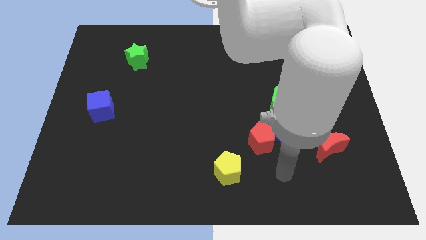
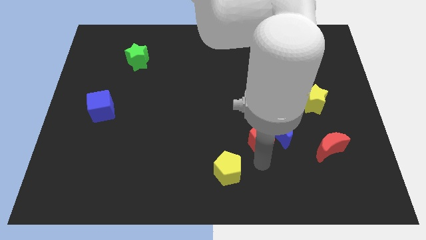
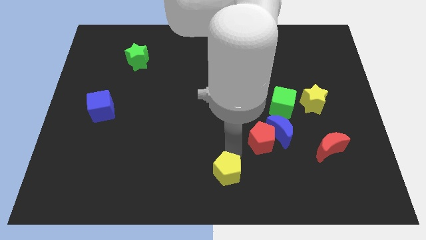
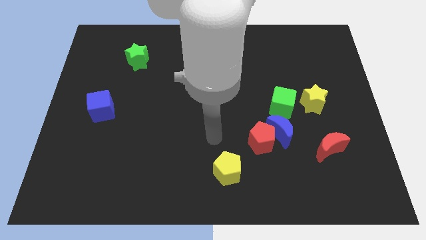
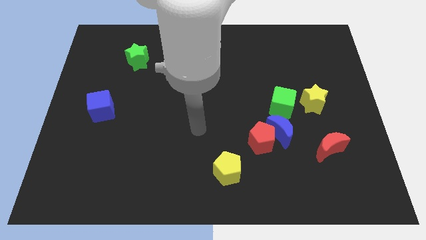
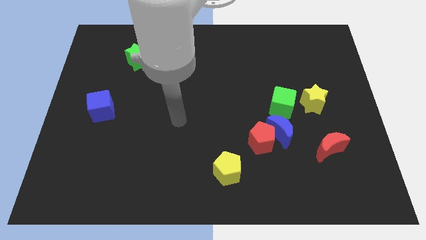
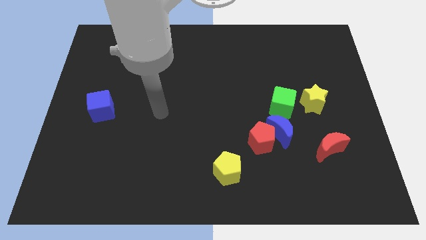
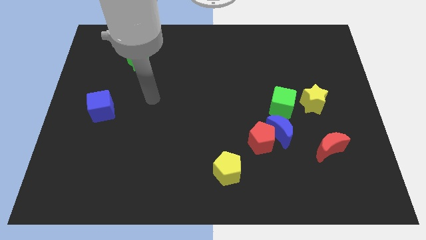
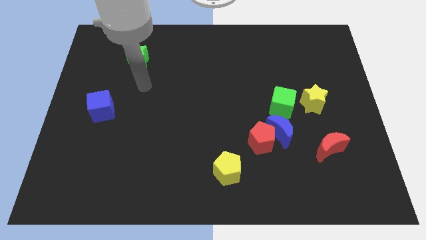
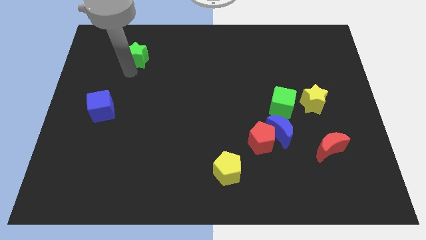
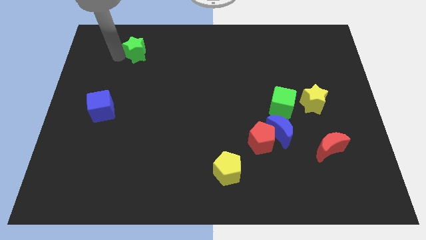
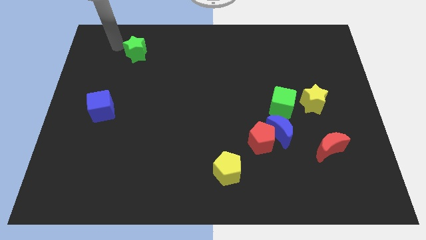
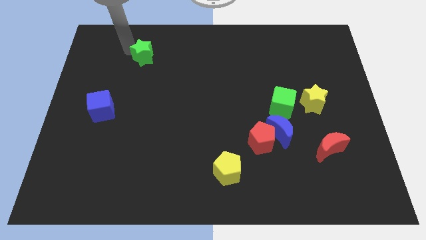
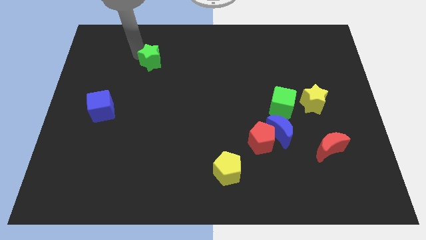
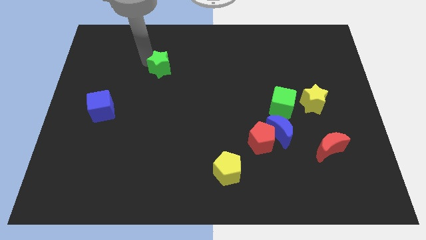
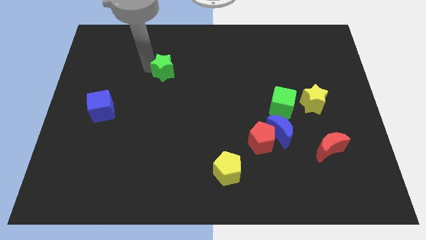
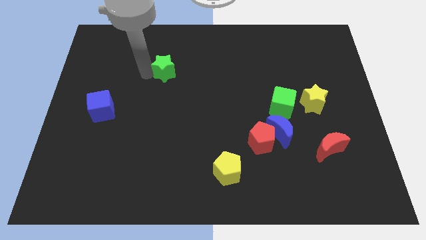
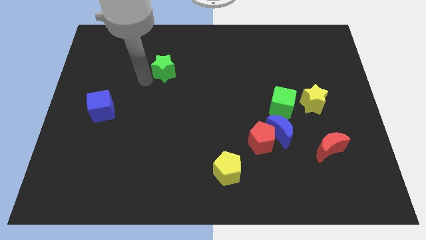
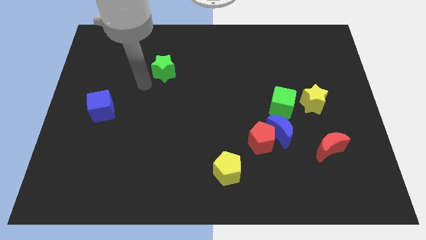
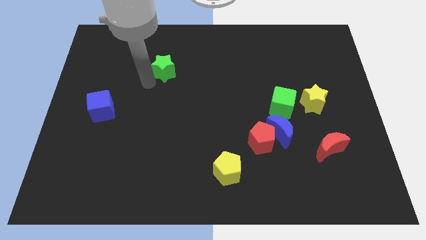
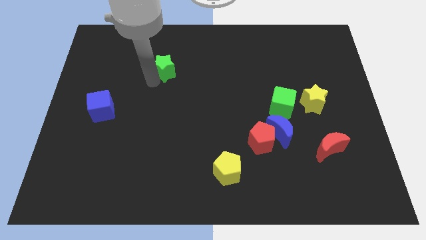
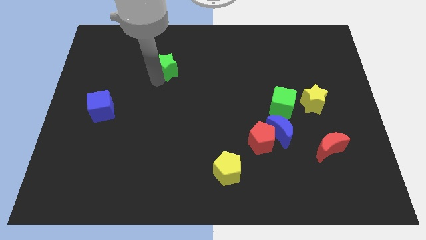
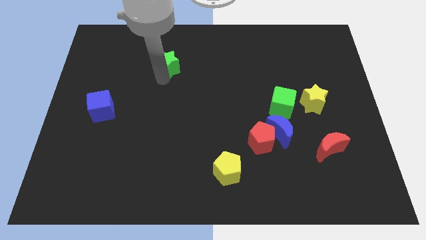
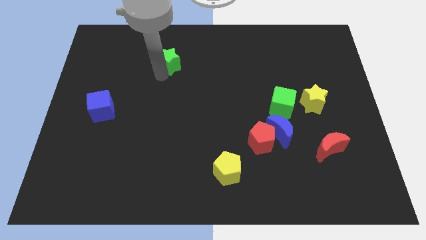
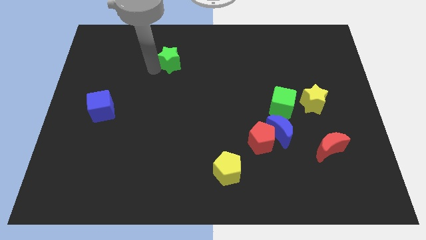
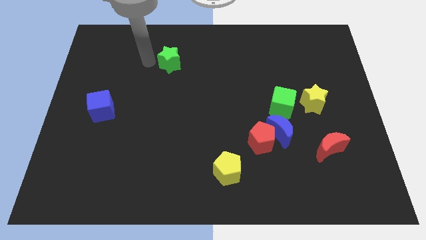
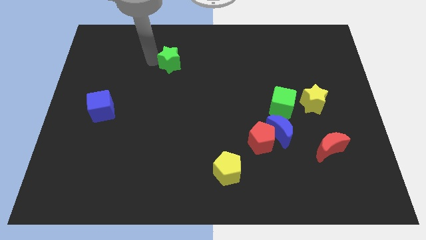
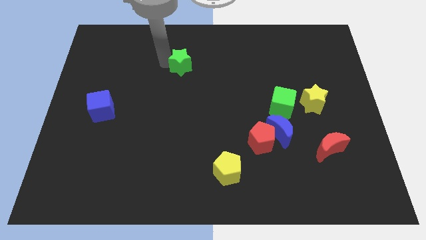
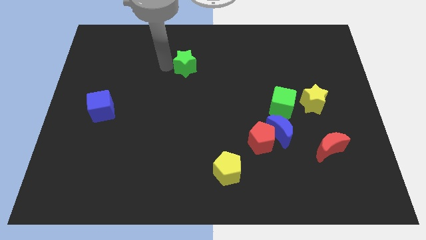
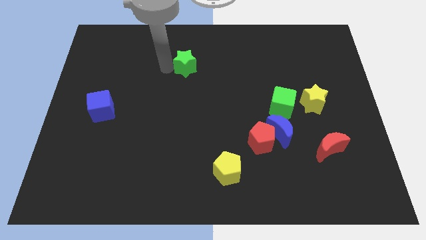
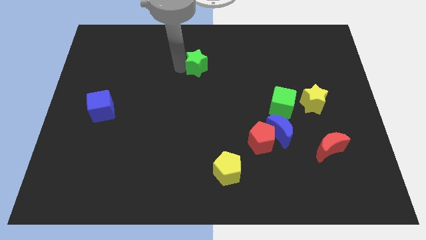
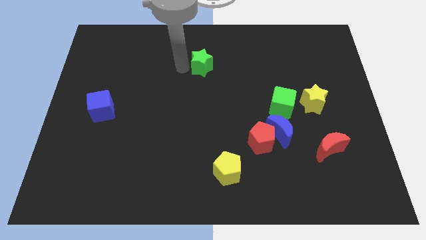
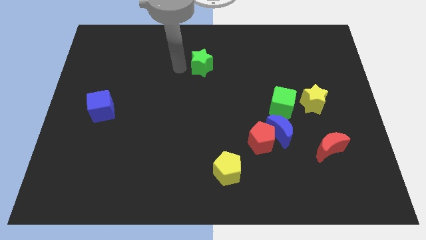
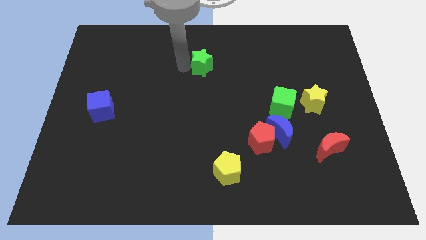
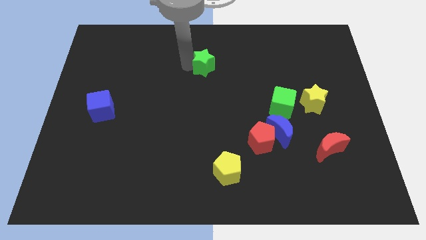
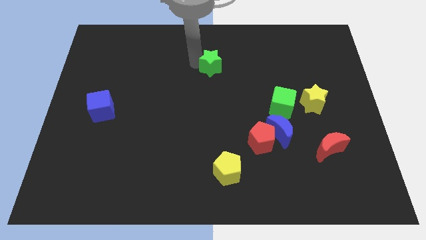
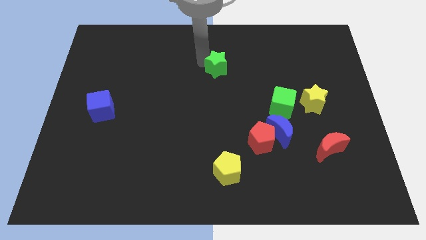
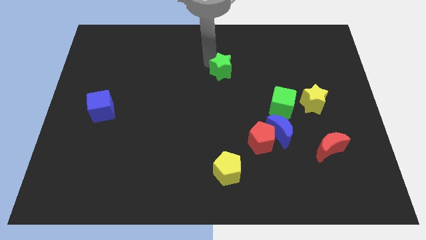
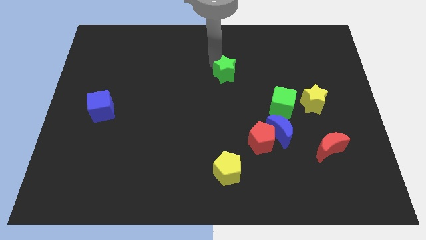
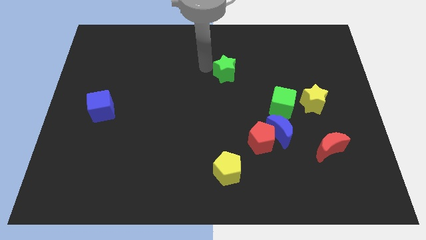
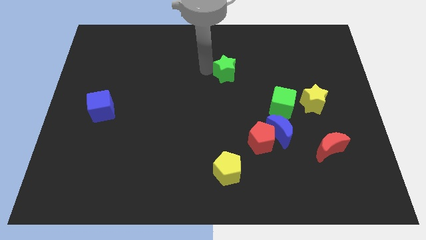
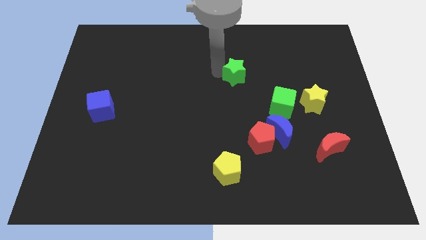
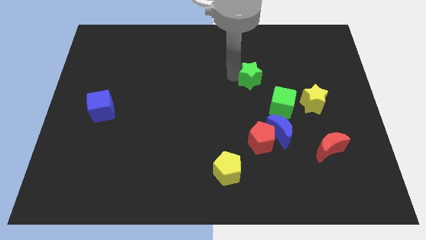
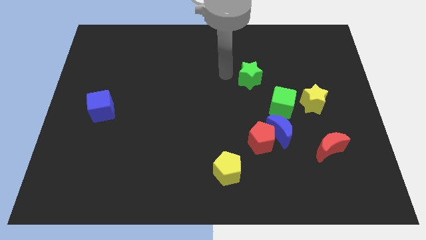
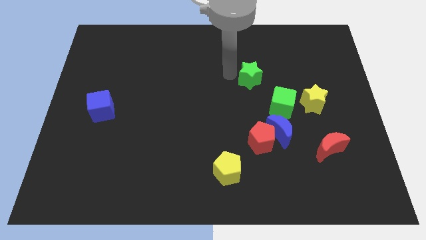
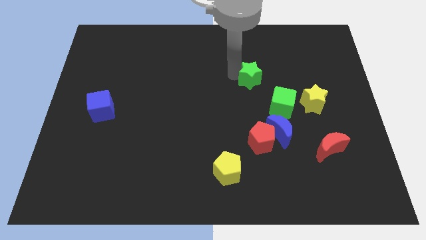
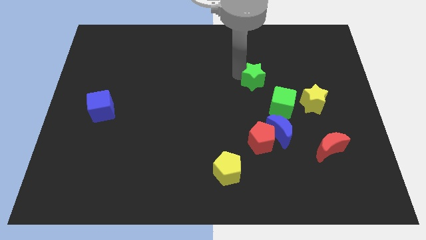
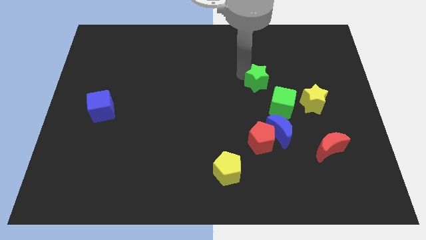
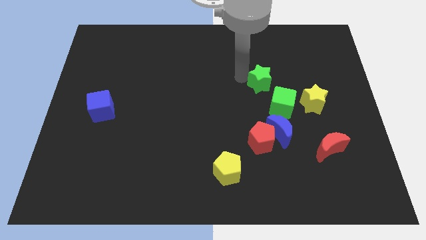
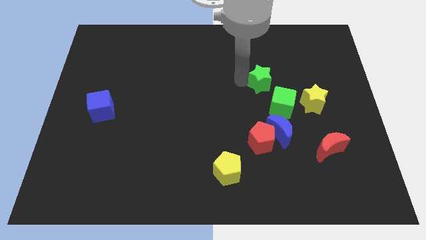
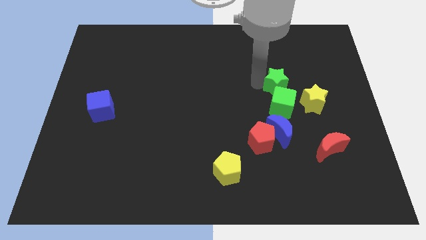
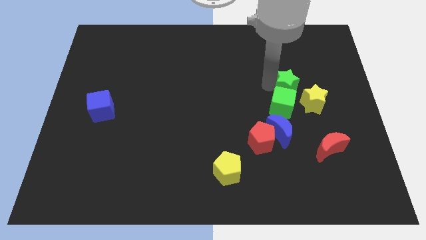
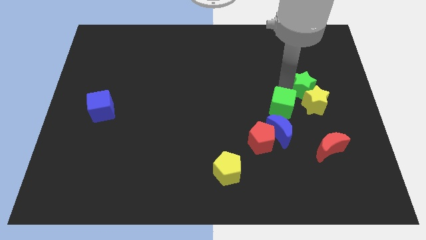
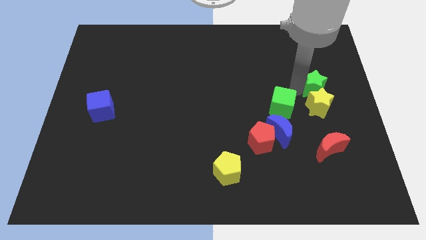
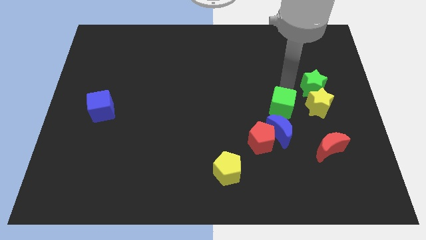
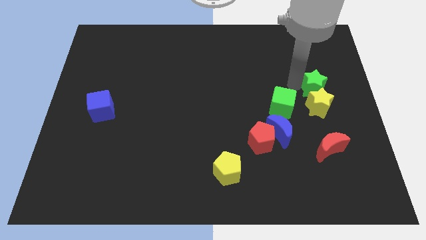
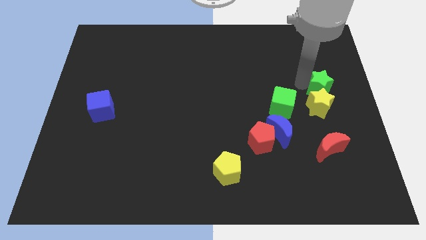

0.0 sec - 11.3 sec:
slide the green star to the center right

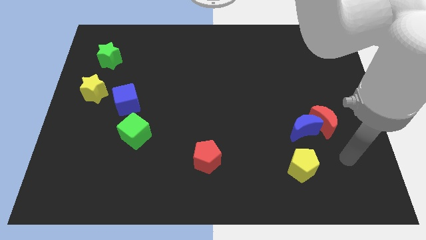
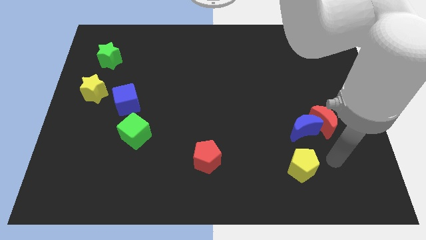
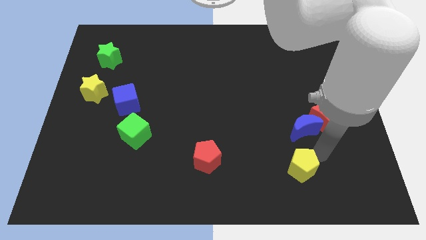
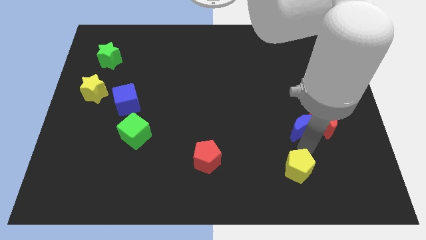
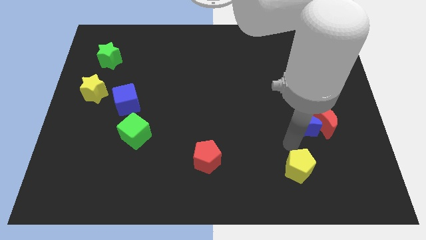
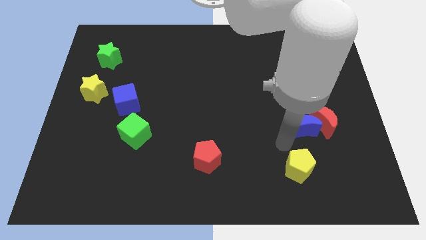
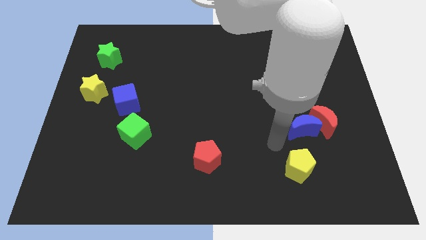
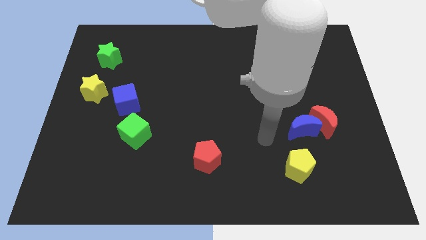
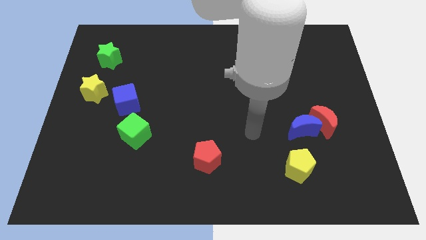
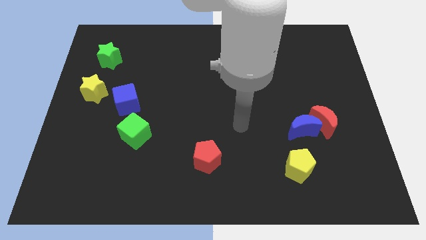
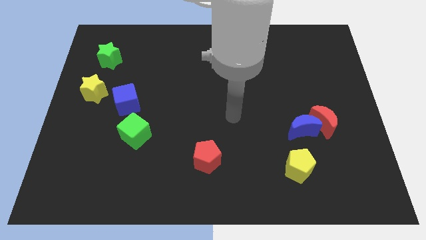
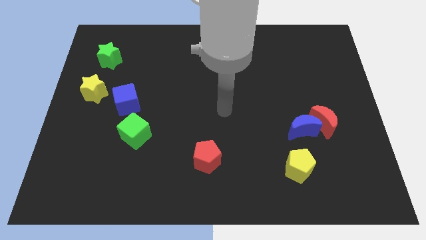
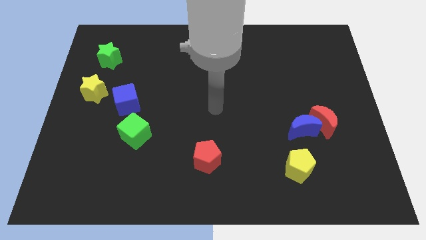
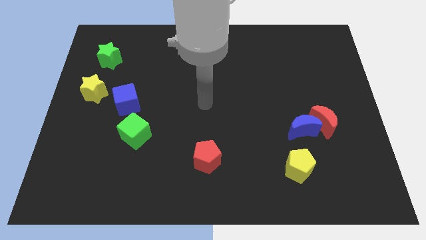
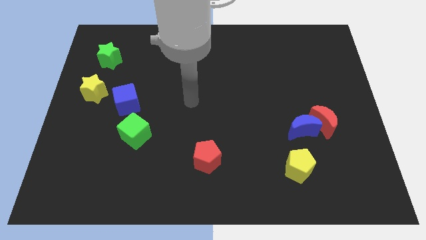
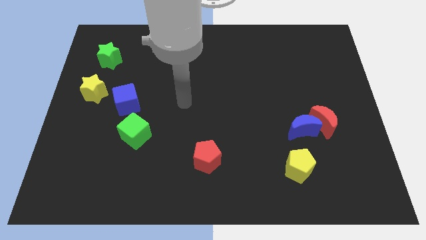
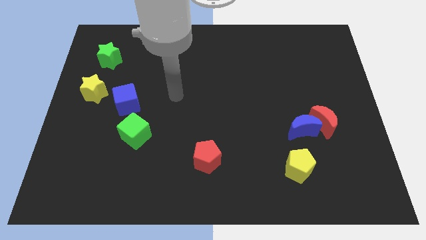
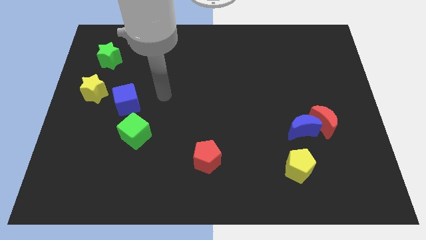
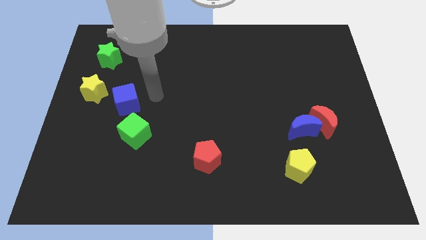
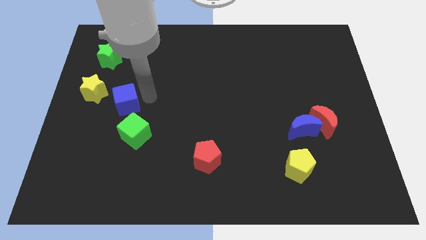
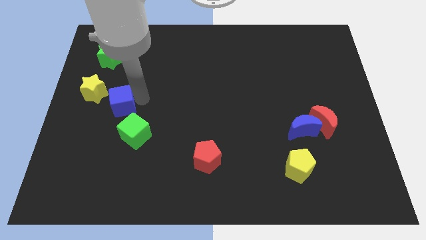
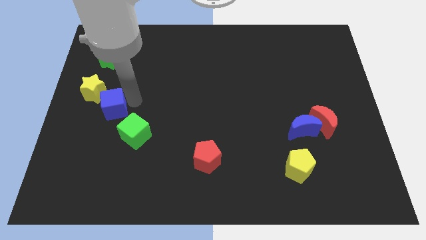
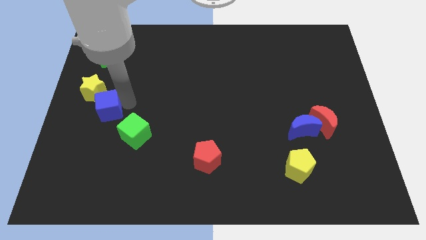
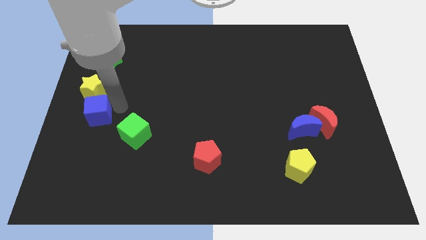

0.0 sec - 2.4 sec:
slide the blue cube to the left side of the board
